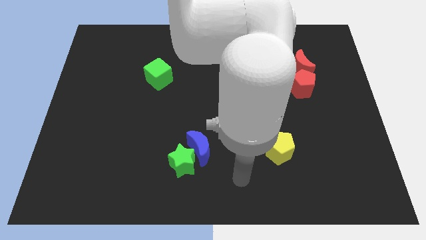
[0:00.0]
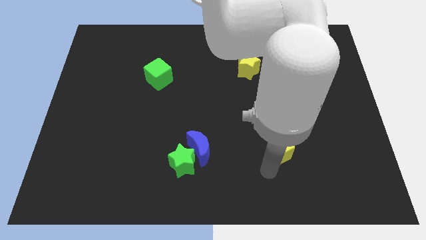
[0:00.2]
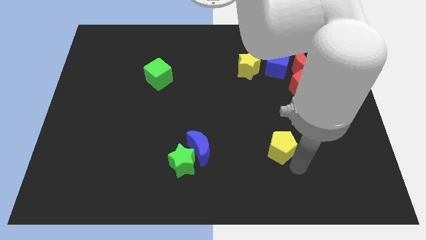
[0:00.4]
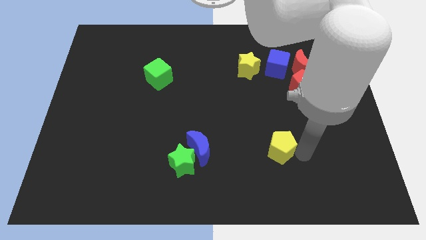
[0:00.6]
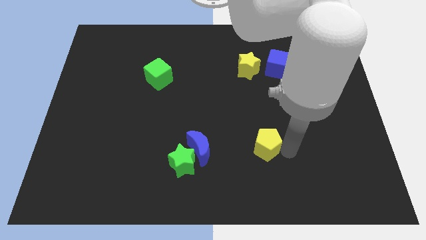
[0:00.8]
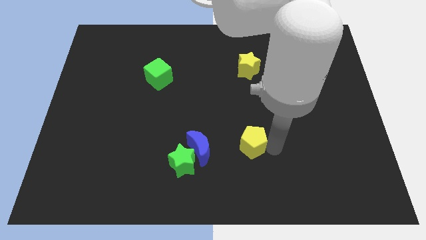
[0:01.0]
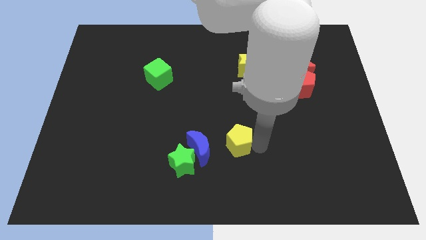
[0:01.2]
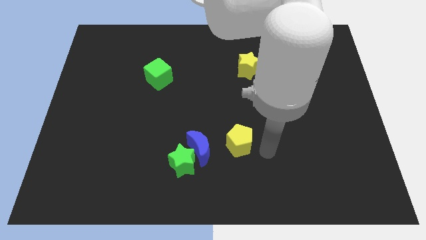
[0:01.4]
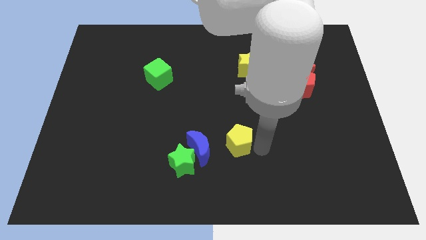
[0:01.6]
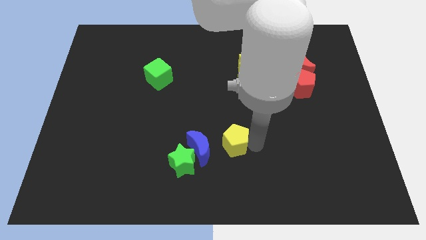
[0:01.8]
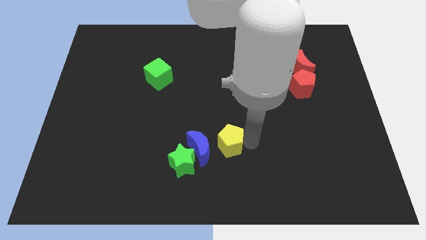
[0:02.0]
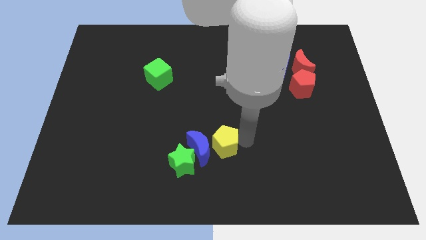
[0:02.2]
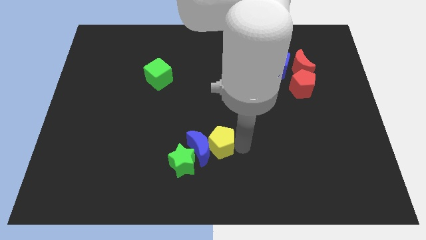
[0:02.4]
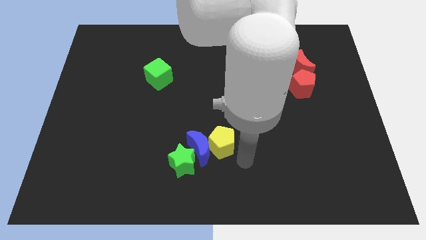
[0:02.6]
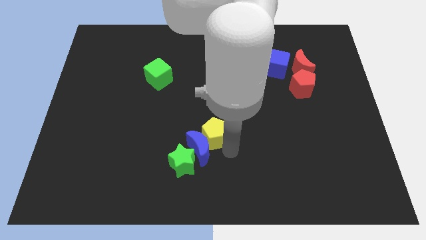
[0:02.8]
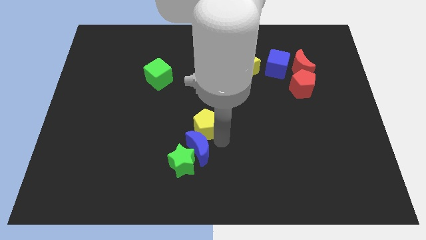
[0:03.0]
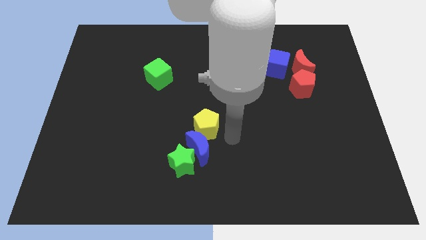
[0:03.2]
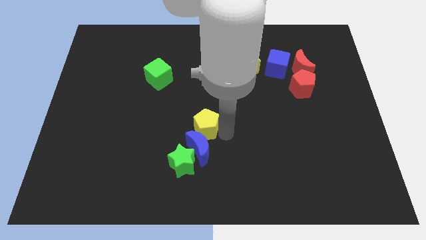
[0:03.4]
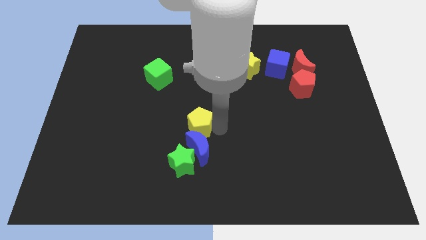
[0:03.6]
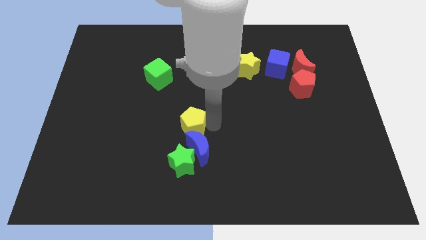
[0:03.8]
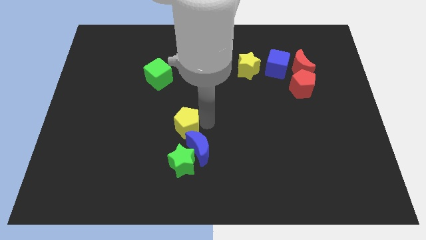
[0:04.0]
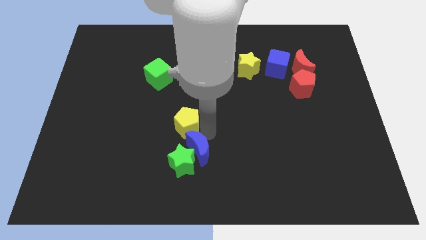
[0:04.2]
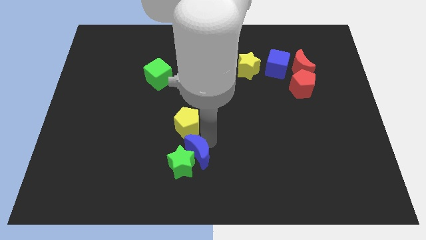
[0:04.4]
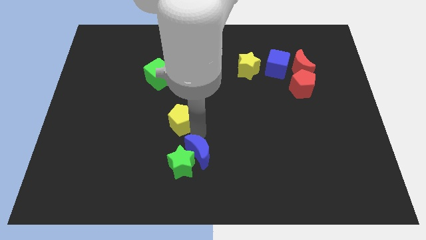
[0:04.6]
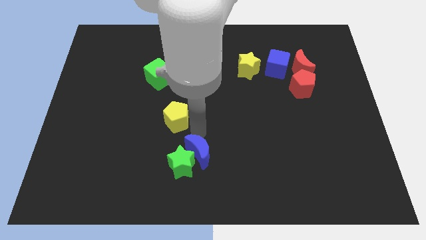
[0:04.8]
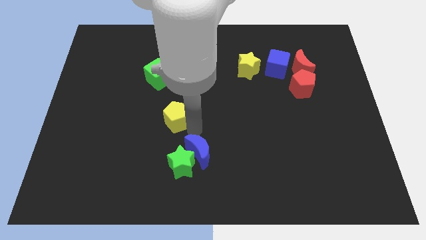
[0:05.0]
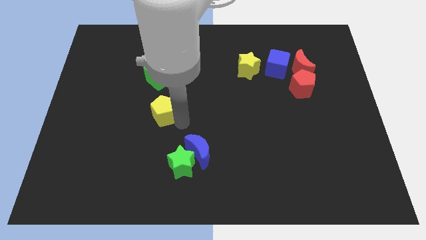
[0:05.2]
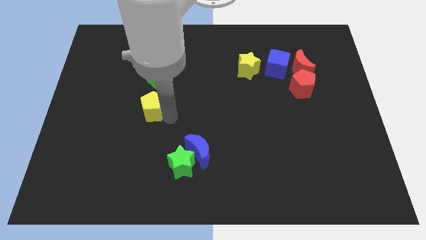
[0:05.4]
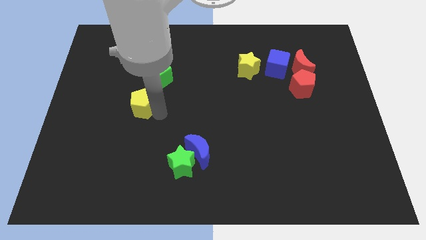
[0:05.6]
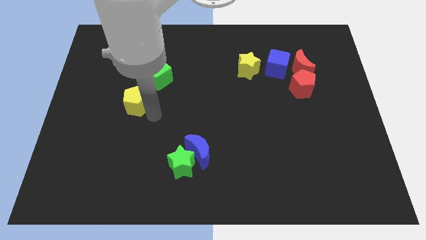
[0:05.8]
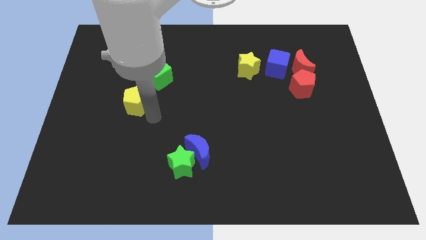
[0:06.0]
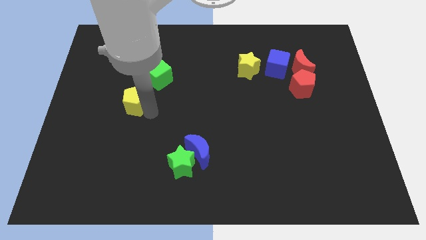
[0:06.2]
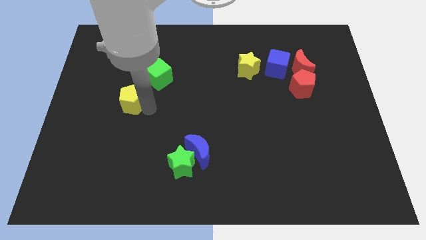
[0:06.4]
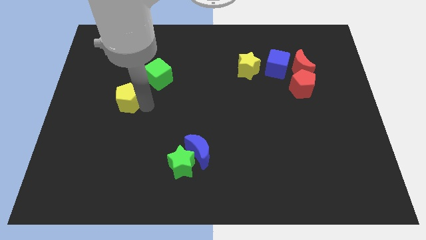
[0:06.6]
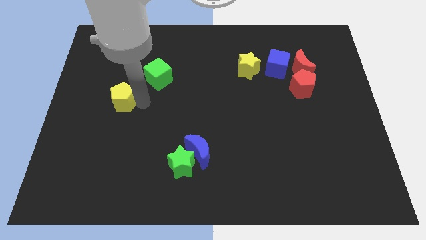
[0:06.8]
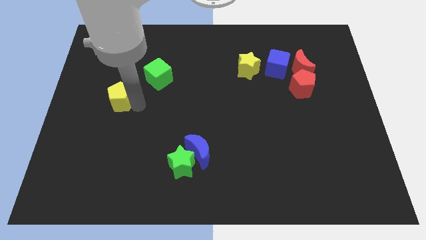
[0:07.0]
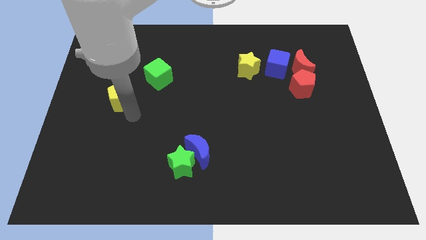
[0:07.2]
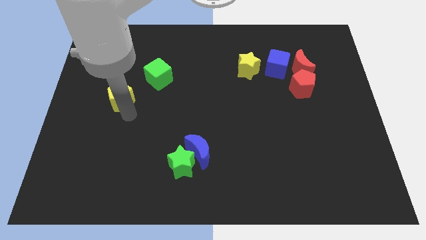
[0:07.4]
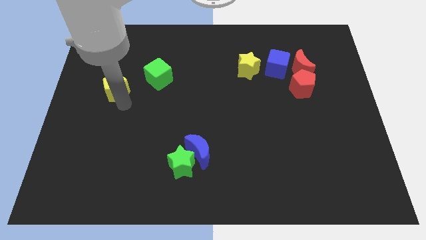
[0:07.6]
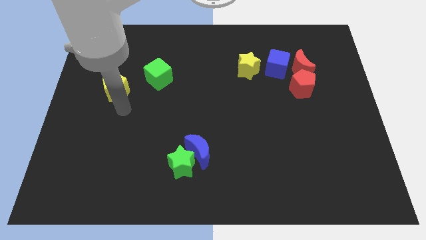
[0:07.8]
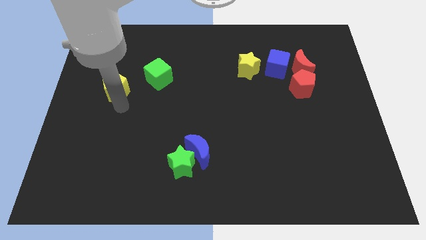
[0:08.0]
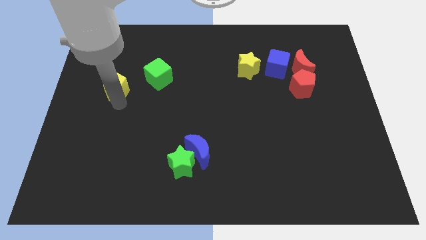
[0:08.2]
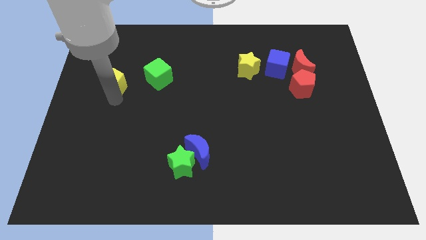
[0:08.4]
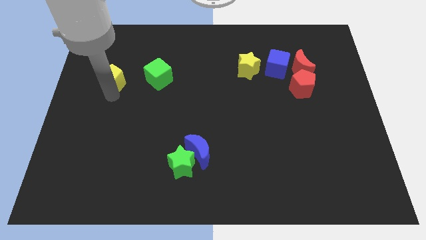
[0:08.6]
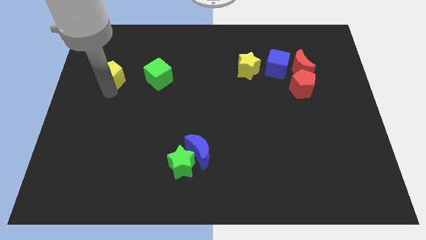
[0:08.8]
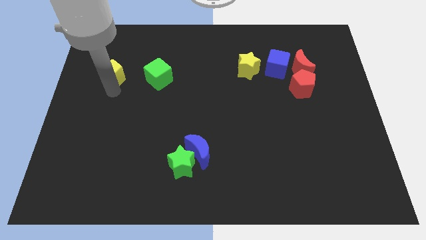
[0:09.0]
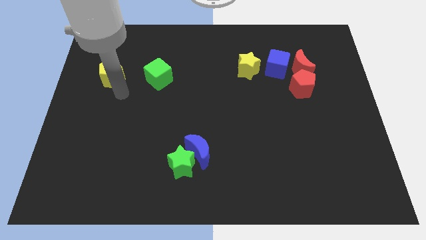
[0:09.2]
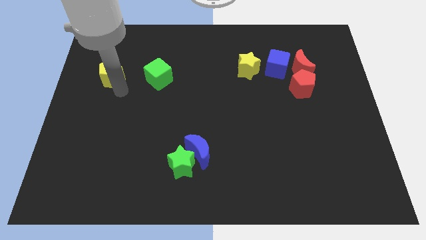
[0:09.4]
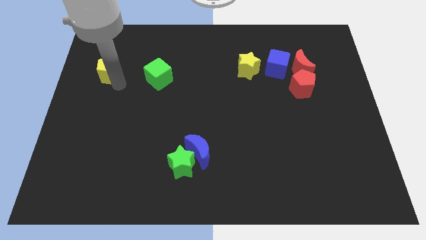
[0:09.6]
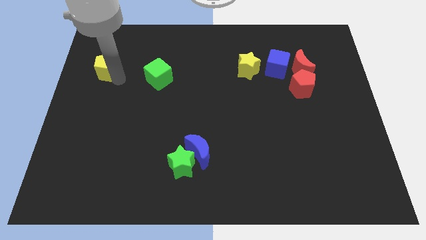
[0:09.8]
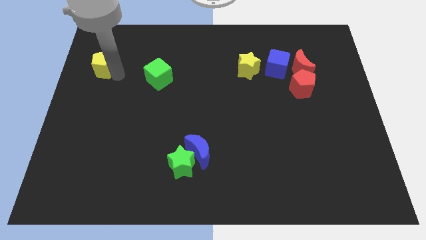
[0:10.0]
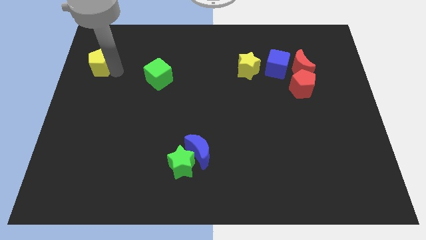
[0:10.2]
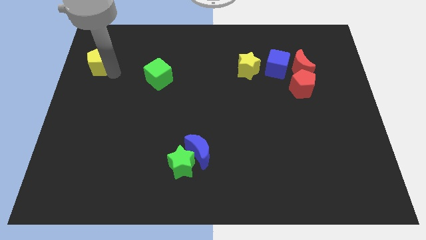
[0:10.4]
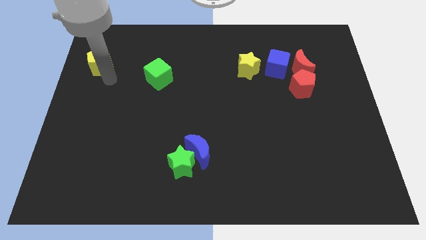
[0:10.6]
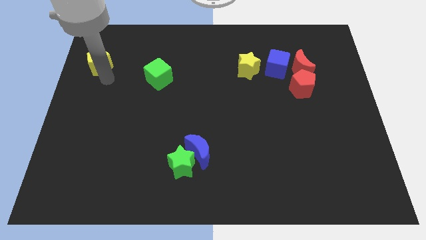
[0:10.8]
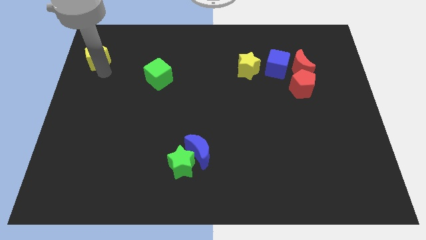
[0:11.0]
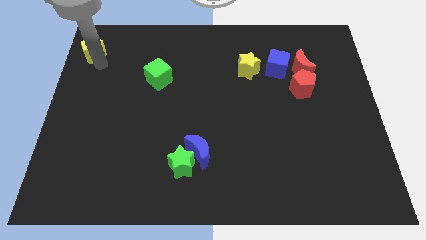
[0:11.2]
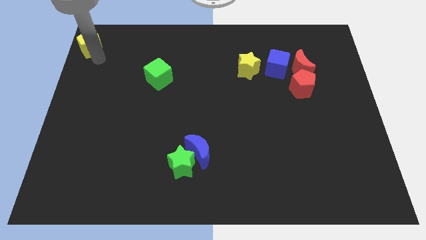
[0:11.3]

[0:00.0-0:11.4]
move the yellow pentagon to the top left
